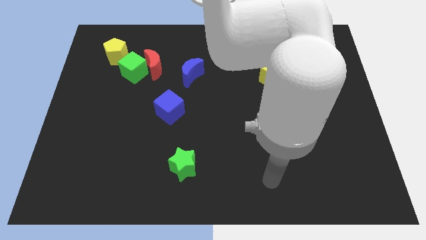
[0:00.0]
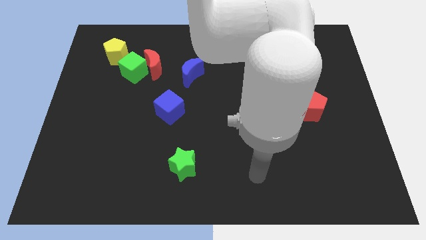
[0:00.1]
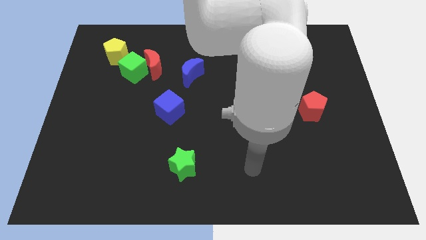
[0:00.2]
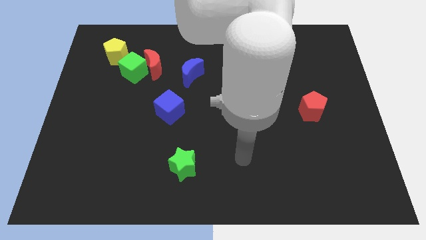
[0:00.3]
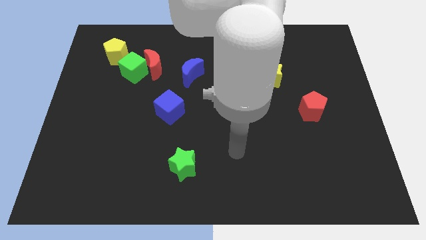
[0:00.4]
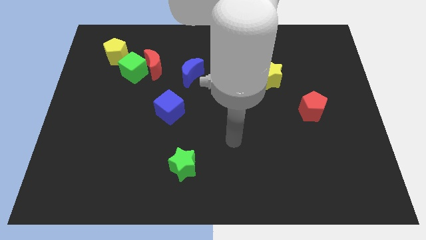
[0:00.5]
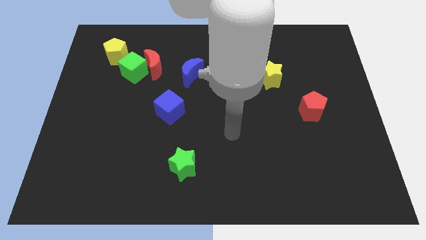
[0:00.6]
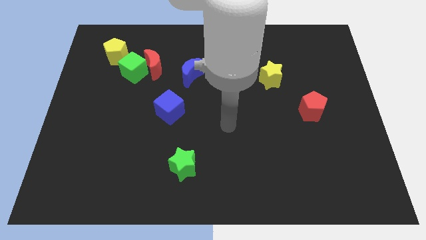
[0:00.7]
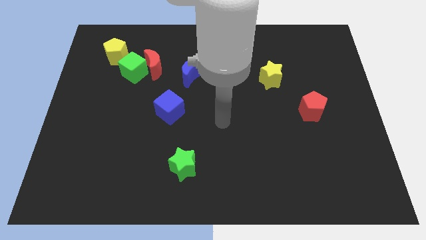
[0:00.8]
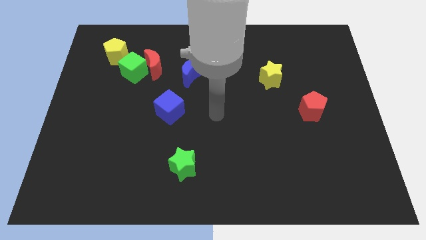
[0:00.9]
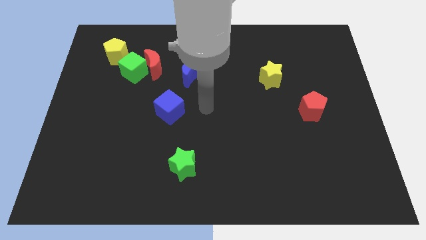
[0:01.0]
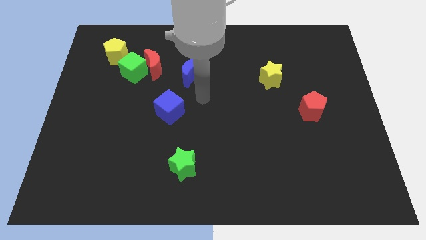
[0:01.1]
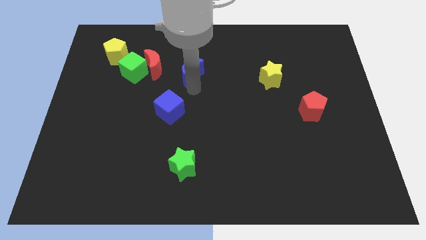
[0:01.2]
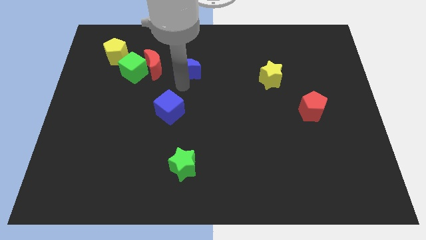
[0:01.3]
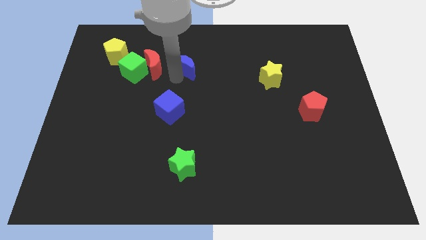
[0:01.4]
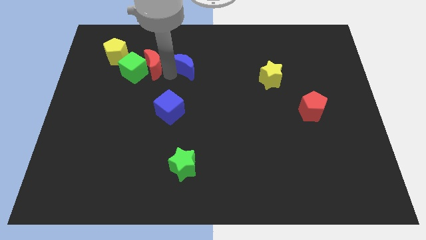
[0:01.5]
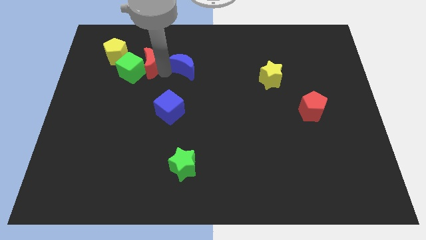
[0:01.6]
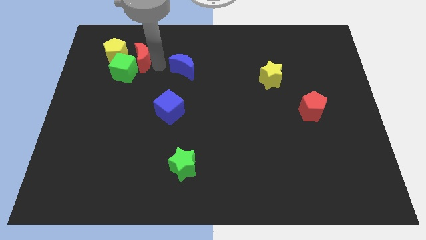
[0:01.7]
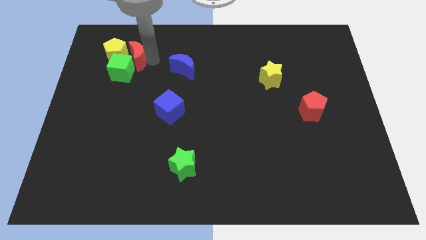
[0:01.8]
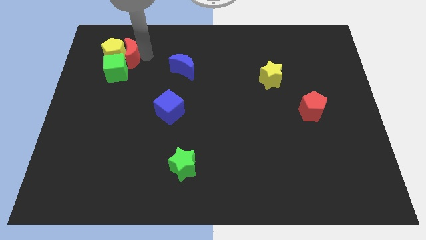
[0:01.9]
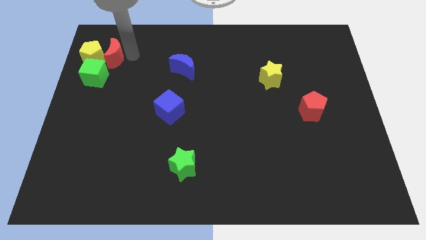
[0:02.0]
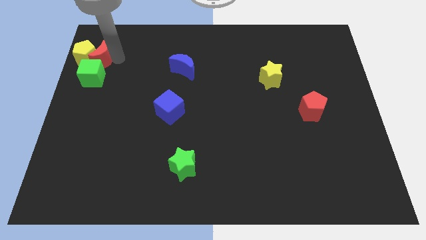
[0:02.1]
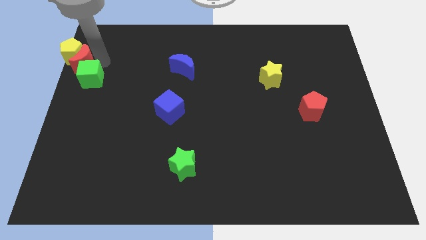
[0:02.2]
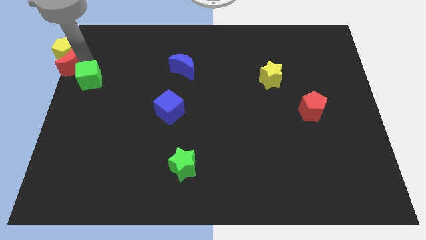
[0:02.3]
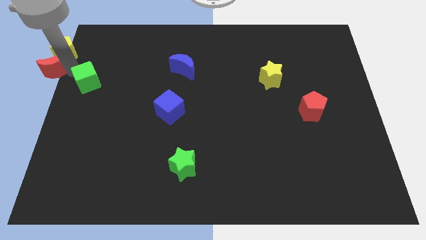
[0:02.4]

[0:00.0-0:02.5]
pull the green cube apart from the red moon and yellow pentagon

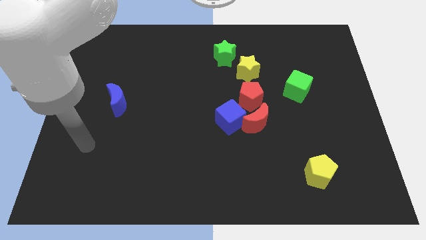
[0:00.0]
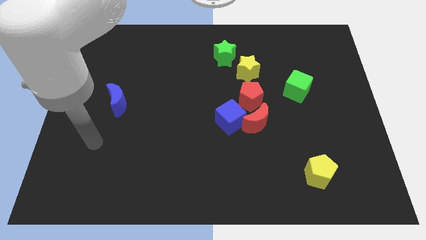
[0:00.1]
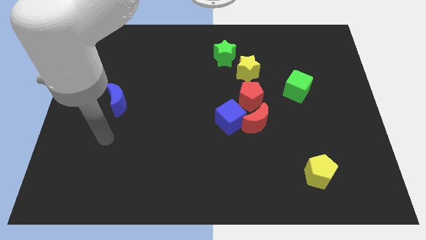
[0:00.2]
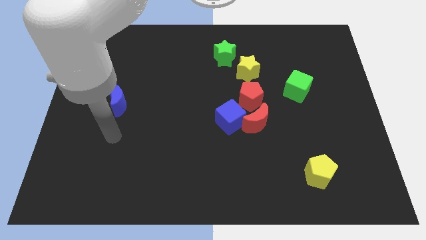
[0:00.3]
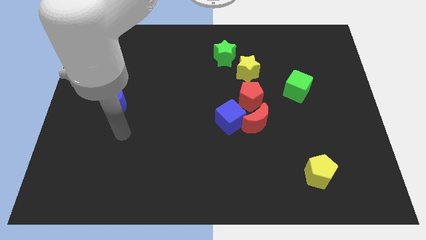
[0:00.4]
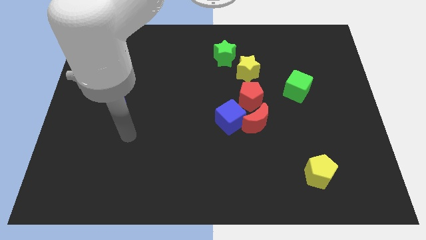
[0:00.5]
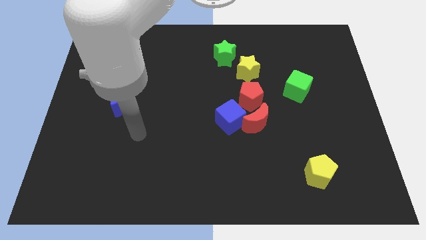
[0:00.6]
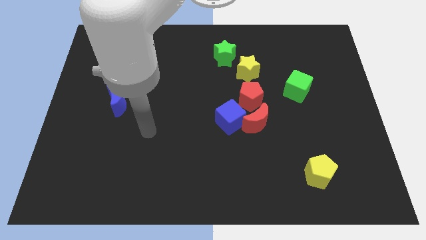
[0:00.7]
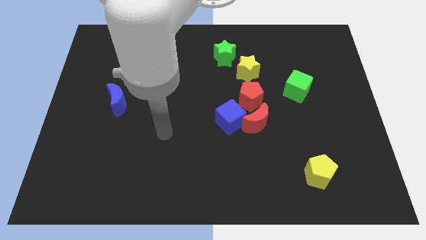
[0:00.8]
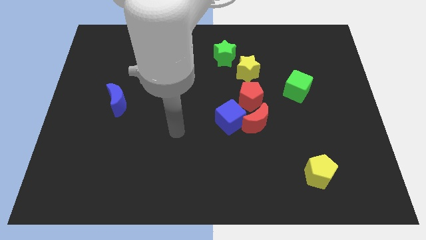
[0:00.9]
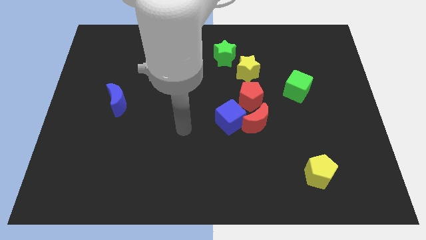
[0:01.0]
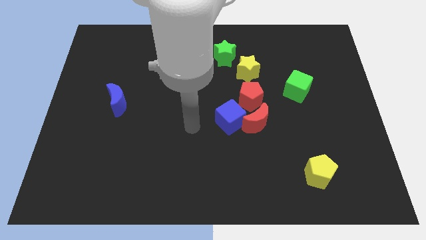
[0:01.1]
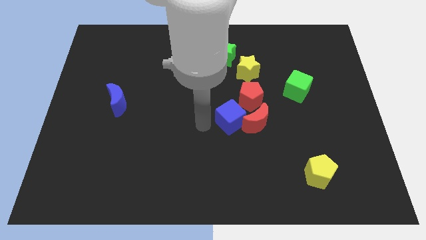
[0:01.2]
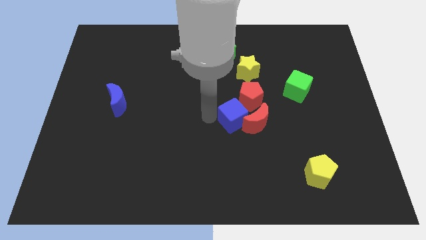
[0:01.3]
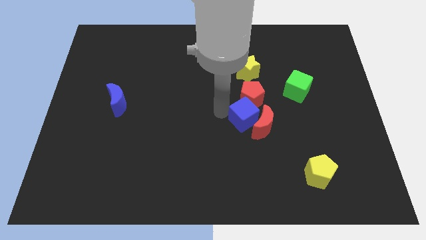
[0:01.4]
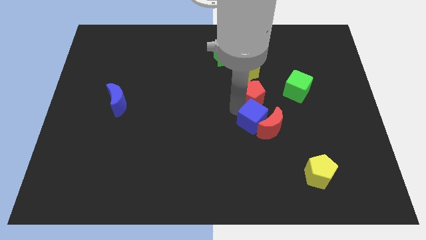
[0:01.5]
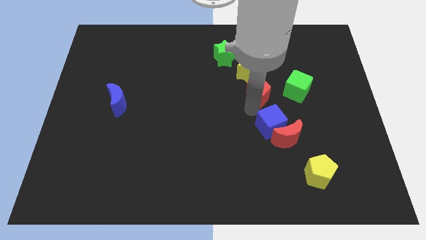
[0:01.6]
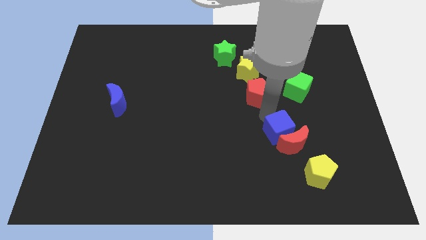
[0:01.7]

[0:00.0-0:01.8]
pull the red moon apart from the blue cube and red pentagon

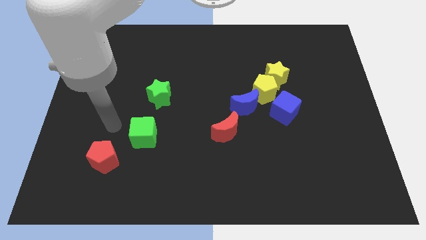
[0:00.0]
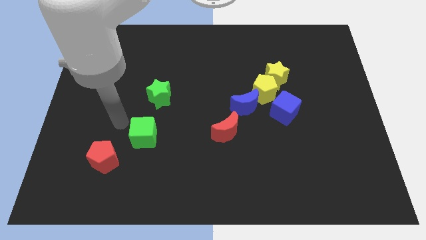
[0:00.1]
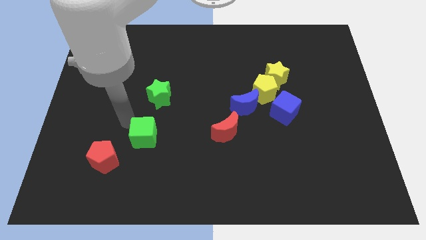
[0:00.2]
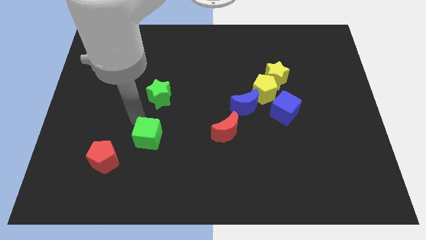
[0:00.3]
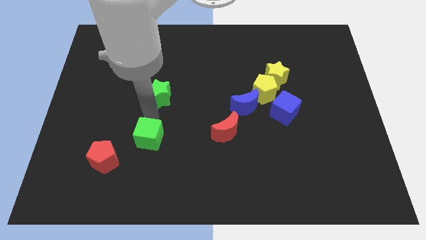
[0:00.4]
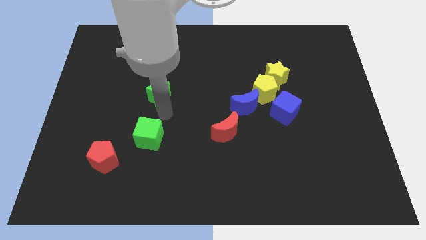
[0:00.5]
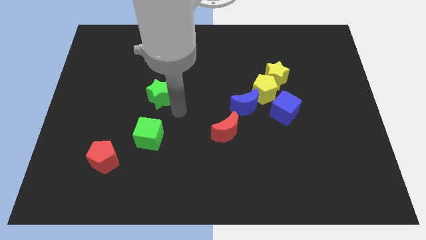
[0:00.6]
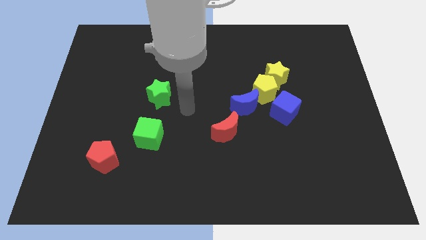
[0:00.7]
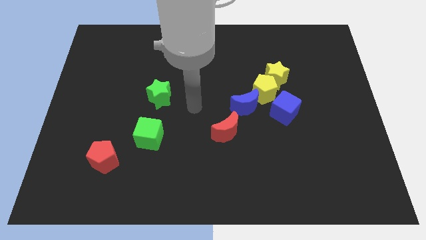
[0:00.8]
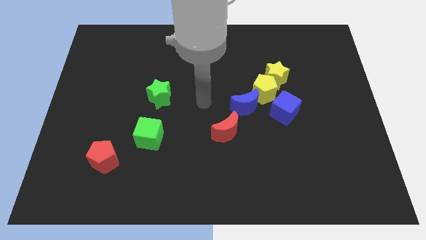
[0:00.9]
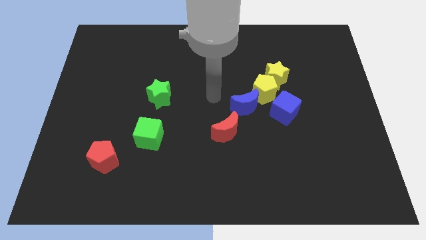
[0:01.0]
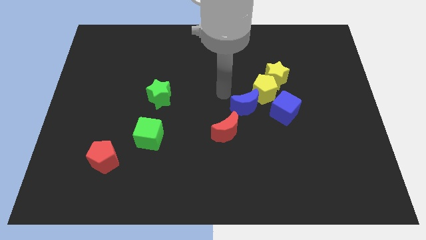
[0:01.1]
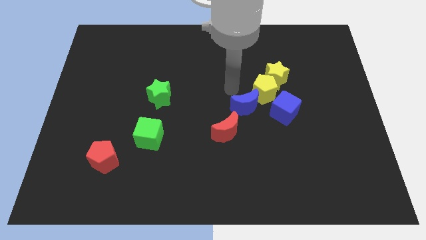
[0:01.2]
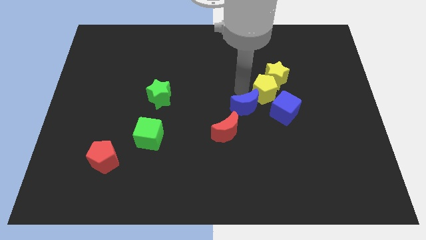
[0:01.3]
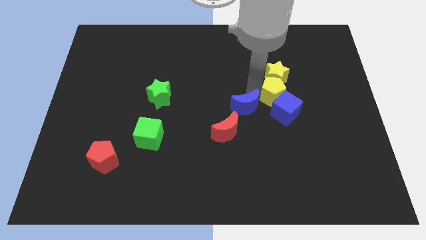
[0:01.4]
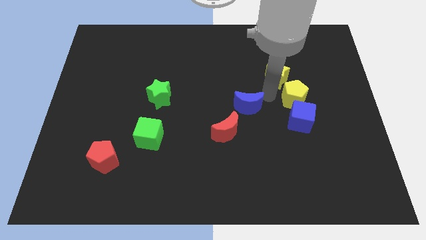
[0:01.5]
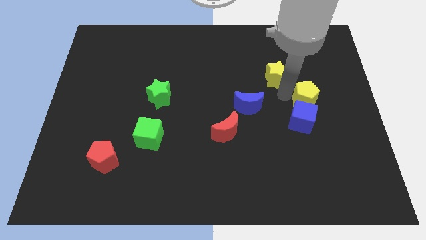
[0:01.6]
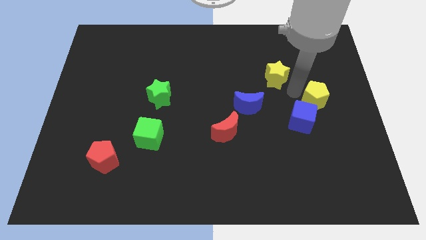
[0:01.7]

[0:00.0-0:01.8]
move the yellow star away from the yellow pentagon

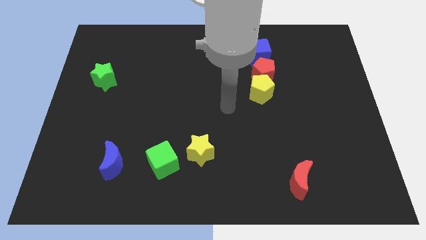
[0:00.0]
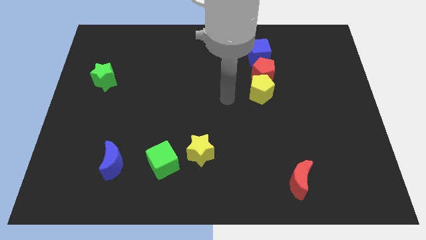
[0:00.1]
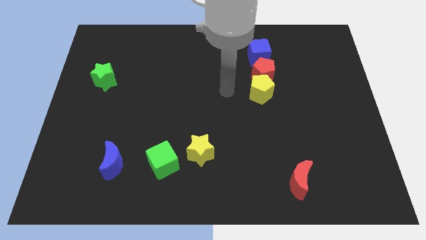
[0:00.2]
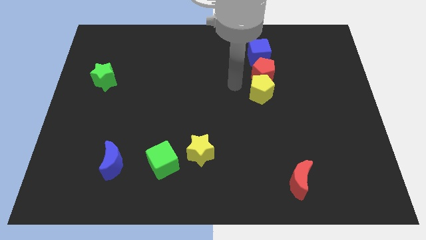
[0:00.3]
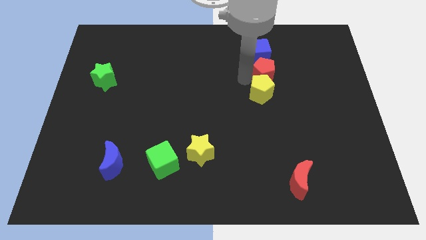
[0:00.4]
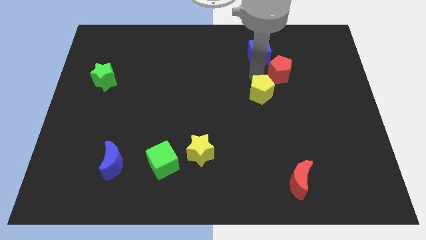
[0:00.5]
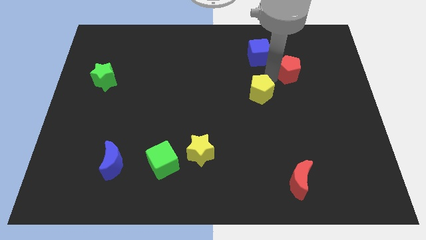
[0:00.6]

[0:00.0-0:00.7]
pull the yellow pentagon apart from the red pentagon

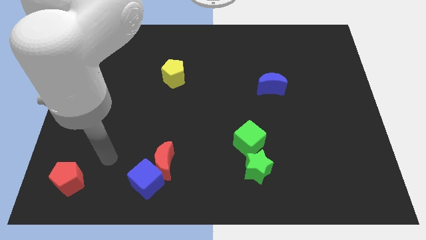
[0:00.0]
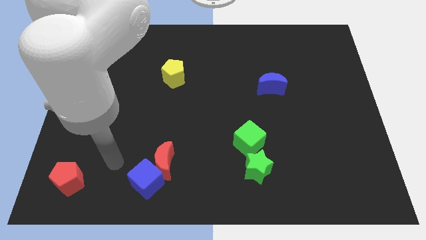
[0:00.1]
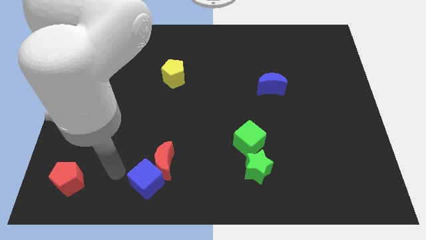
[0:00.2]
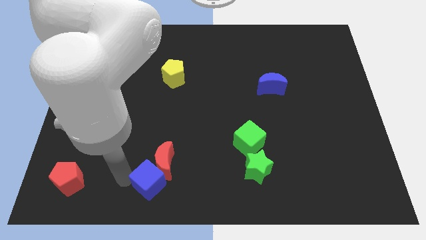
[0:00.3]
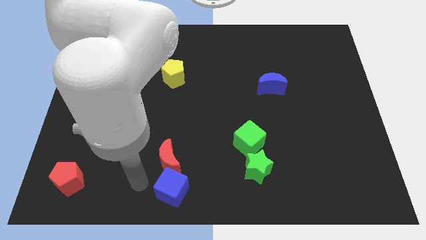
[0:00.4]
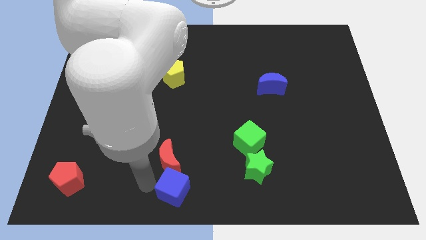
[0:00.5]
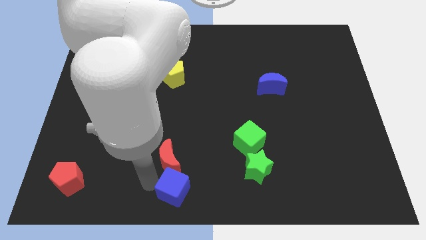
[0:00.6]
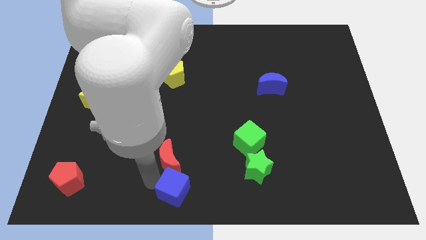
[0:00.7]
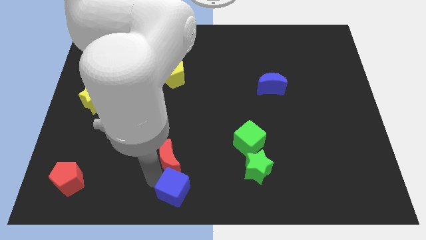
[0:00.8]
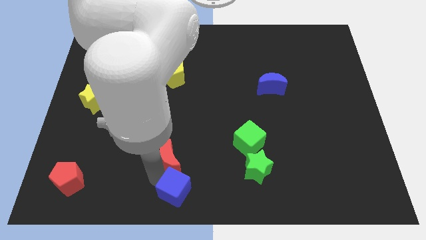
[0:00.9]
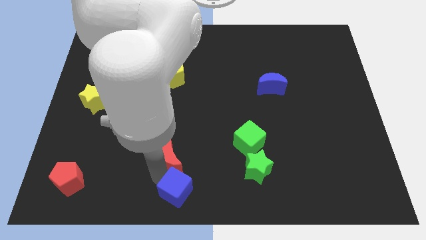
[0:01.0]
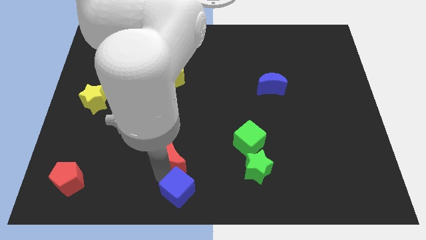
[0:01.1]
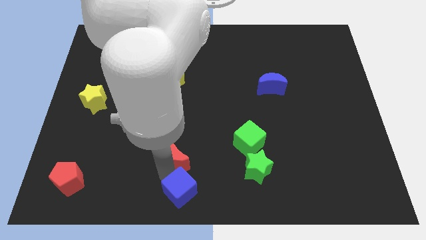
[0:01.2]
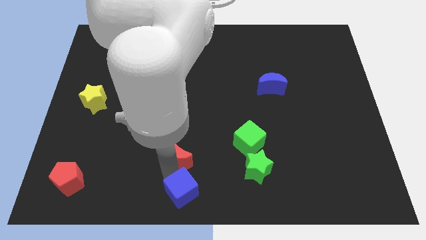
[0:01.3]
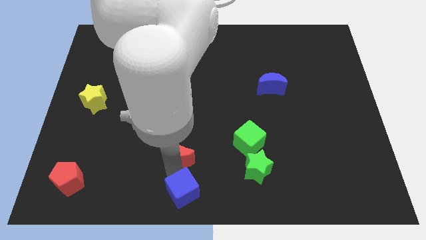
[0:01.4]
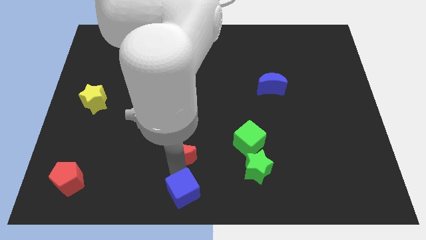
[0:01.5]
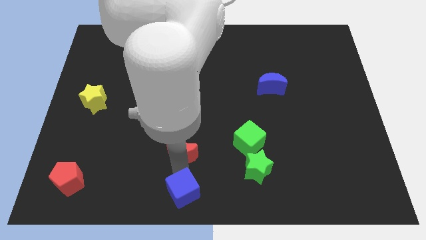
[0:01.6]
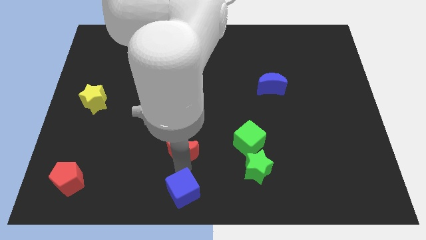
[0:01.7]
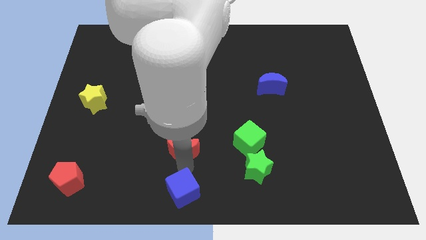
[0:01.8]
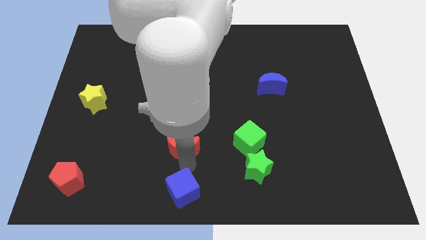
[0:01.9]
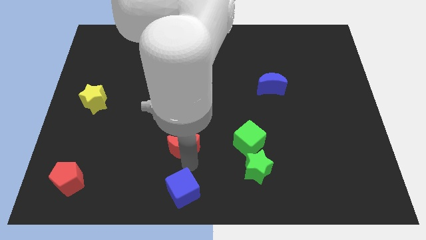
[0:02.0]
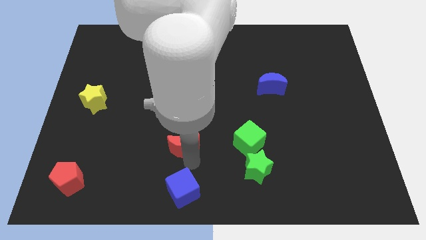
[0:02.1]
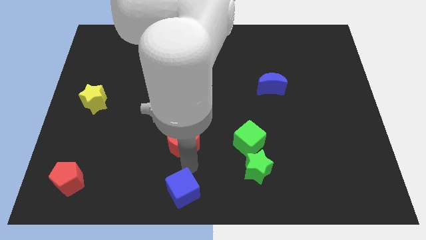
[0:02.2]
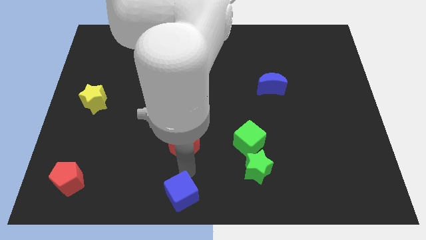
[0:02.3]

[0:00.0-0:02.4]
move the red moon away from the blue cube

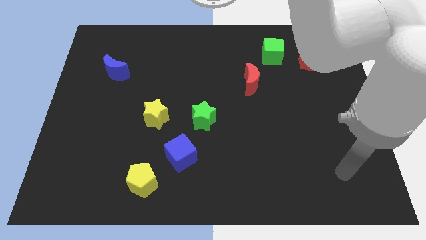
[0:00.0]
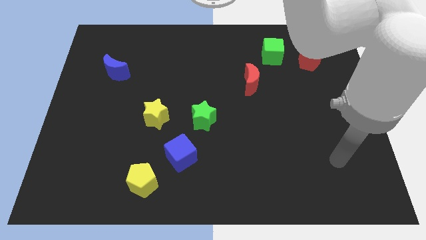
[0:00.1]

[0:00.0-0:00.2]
separate the red pentagon from the green cube
